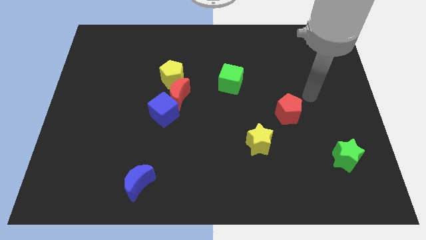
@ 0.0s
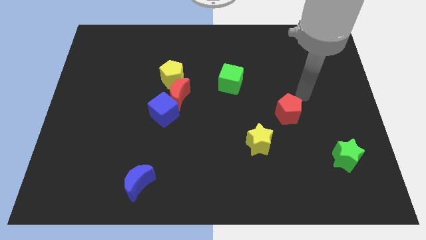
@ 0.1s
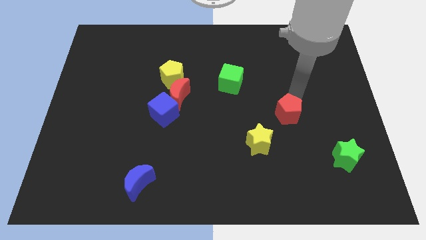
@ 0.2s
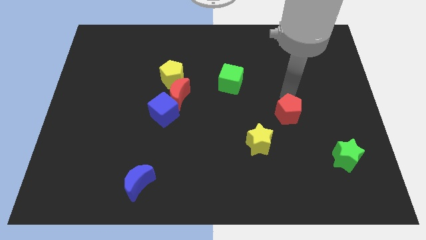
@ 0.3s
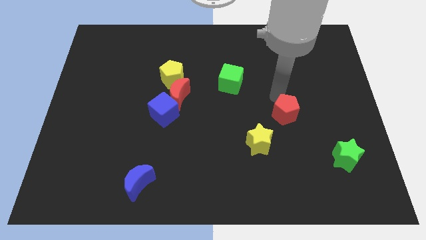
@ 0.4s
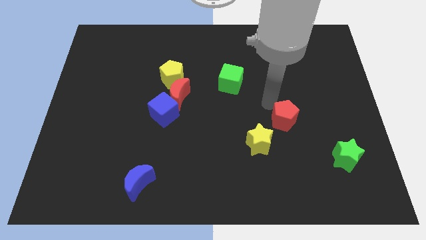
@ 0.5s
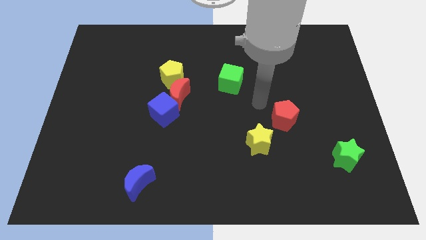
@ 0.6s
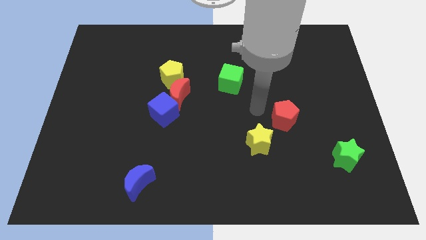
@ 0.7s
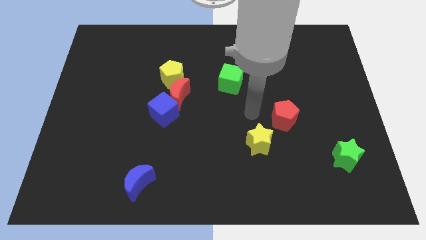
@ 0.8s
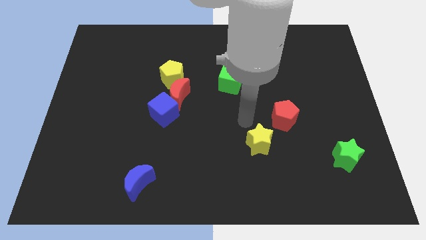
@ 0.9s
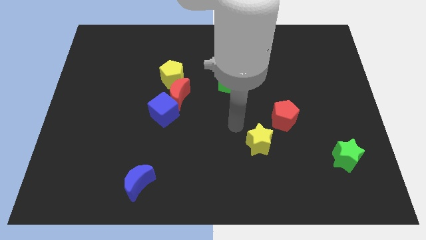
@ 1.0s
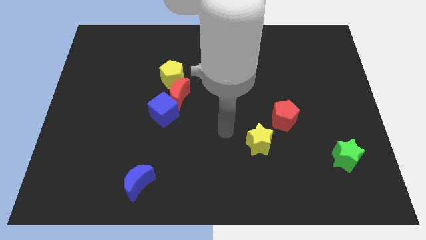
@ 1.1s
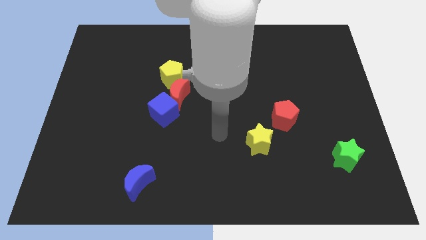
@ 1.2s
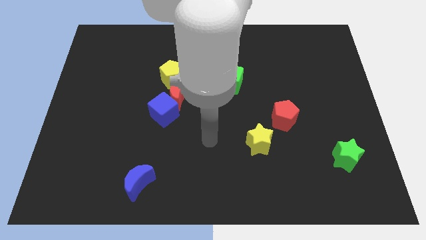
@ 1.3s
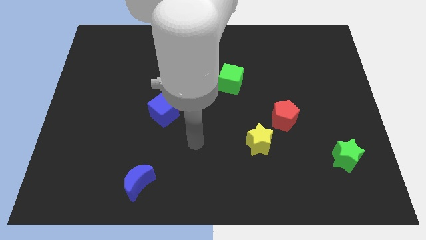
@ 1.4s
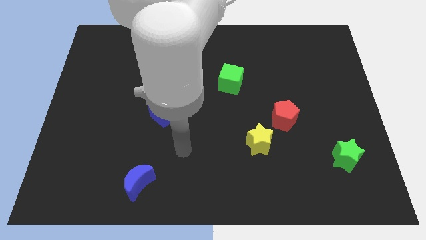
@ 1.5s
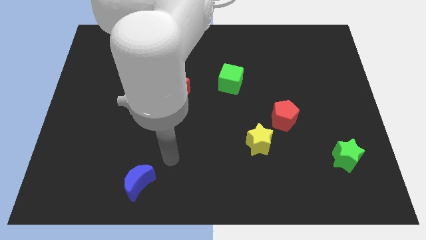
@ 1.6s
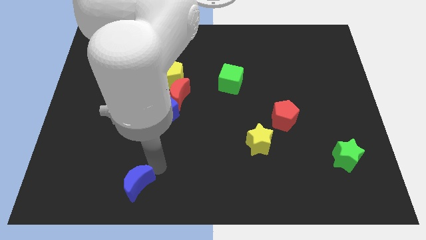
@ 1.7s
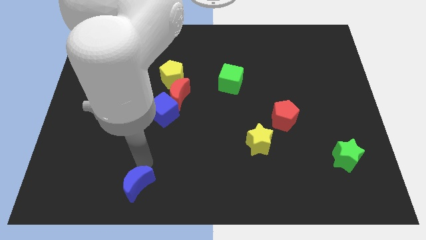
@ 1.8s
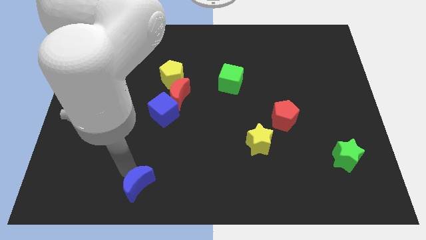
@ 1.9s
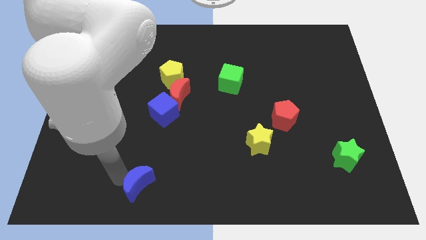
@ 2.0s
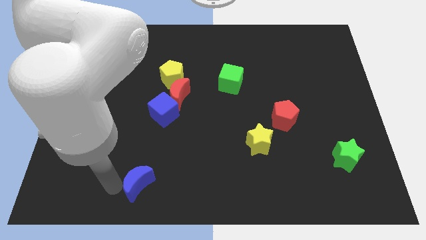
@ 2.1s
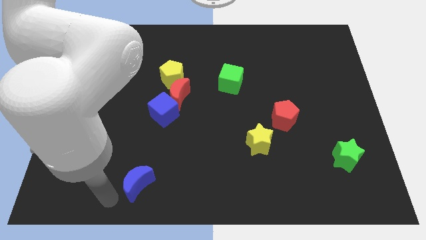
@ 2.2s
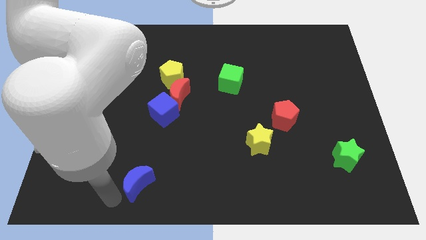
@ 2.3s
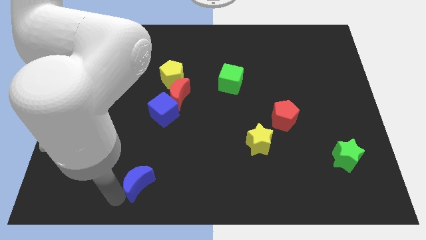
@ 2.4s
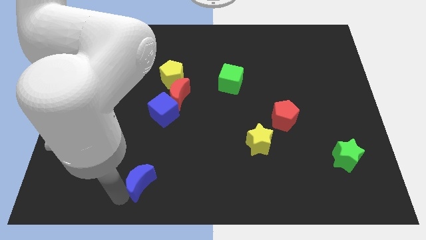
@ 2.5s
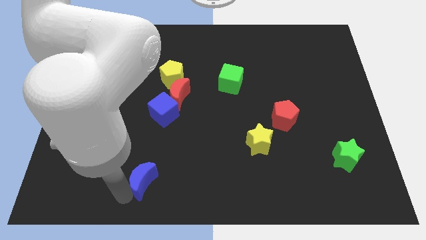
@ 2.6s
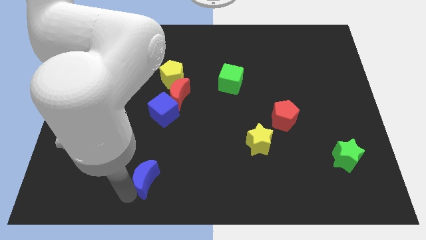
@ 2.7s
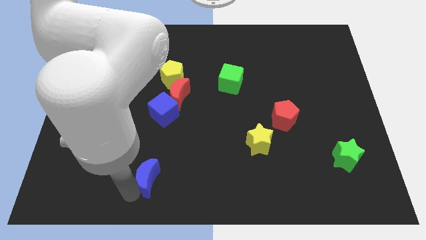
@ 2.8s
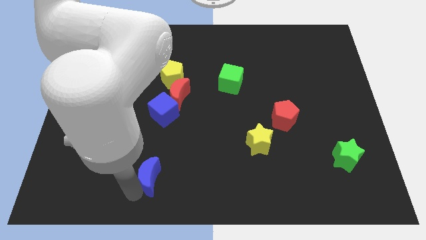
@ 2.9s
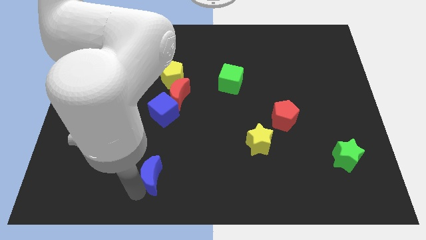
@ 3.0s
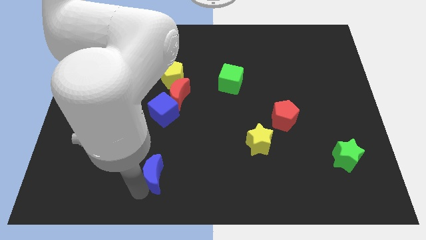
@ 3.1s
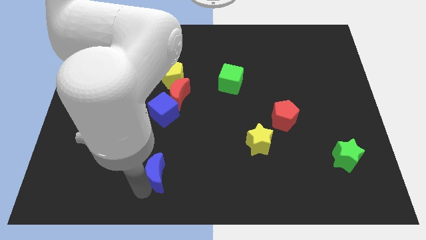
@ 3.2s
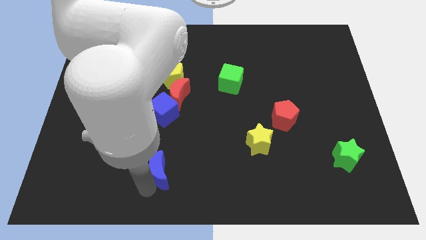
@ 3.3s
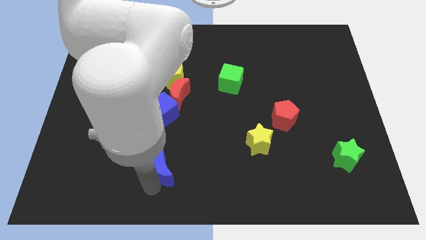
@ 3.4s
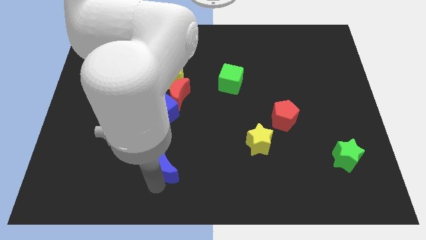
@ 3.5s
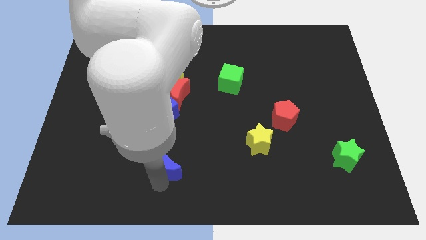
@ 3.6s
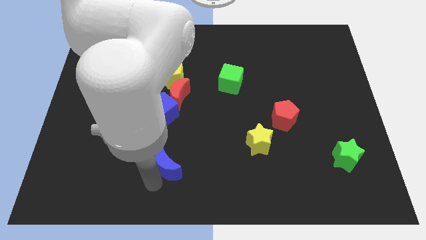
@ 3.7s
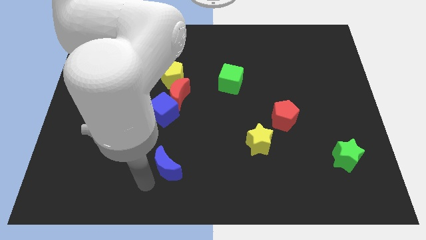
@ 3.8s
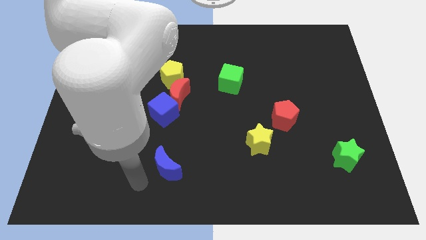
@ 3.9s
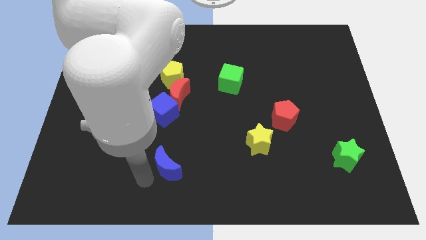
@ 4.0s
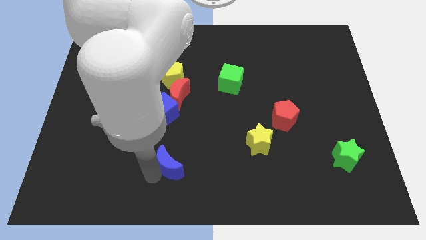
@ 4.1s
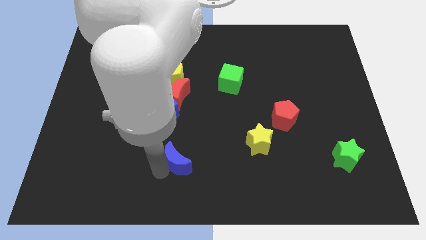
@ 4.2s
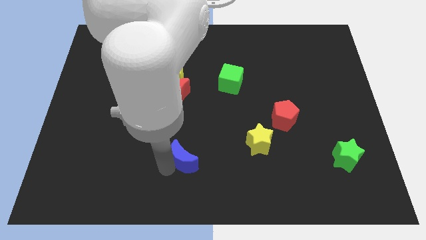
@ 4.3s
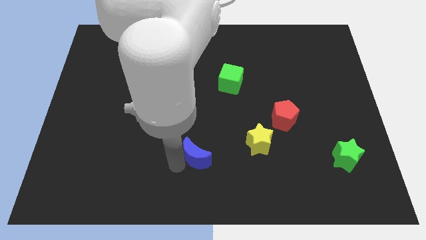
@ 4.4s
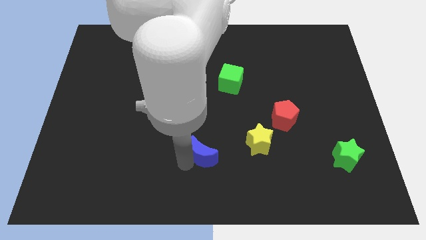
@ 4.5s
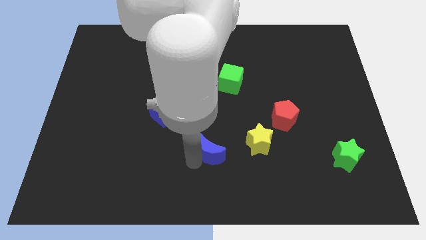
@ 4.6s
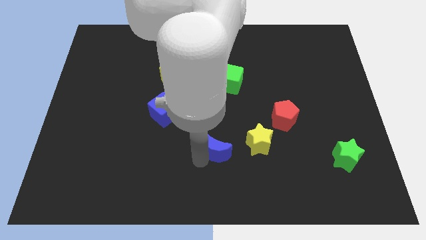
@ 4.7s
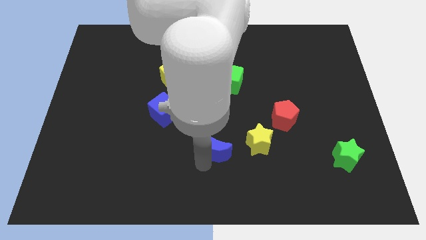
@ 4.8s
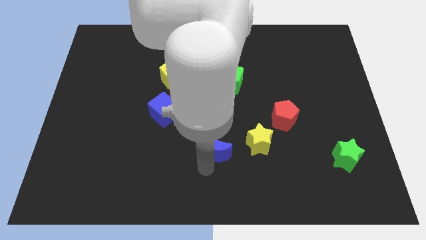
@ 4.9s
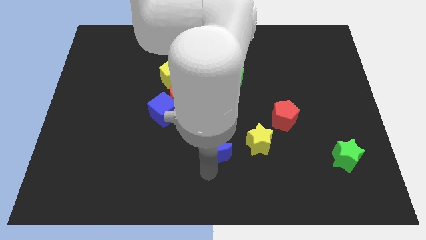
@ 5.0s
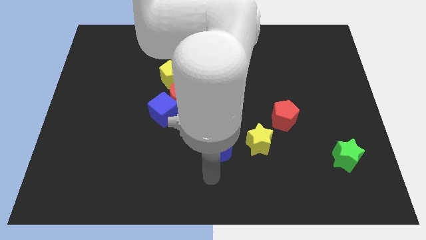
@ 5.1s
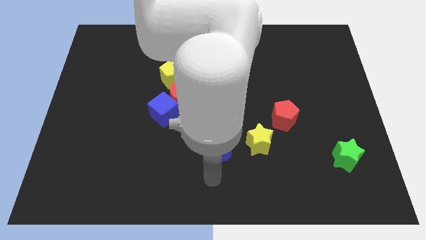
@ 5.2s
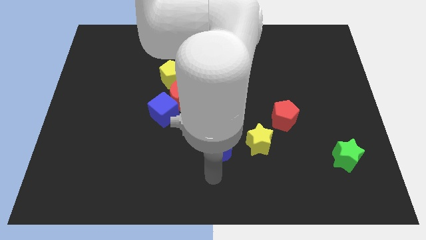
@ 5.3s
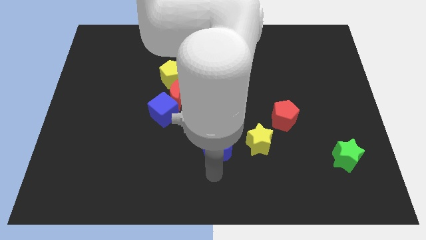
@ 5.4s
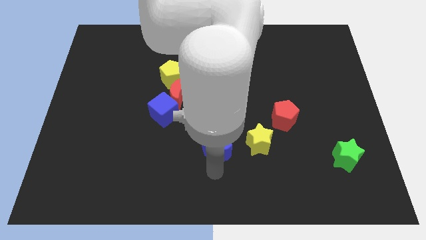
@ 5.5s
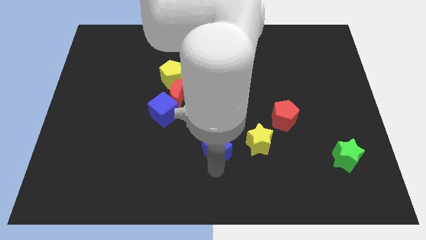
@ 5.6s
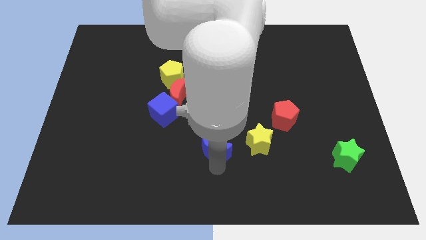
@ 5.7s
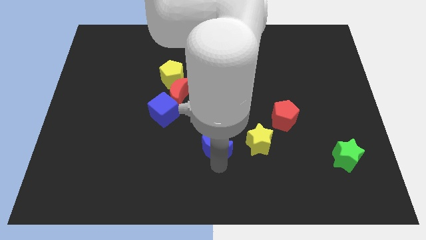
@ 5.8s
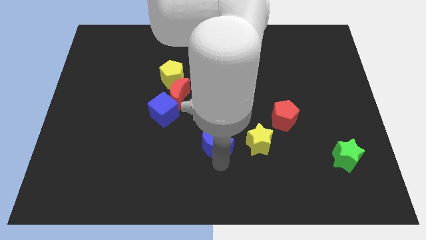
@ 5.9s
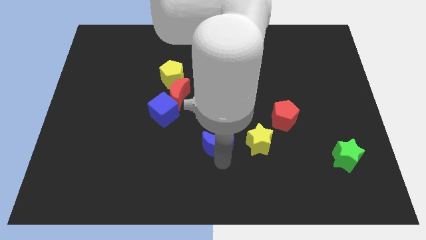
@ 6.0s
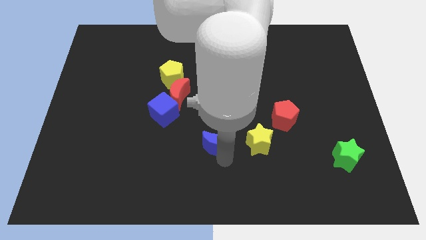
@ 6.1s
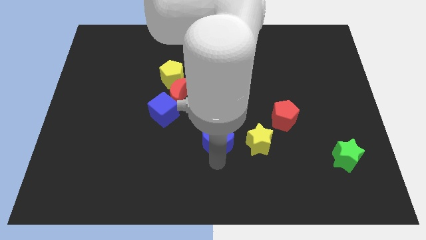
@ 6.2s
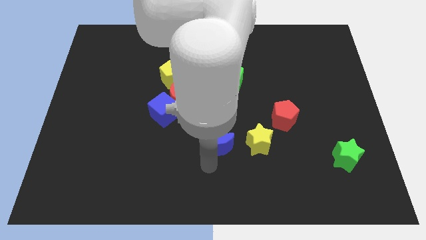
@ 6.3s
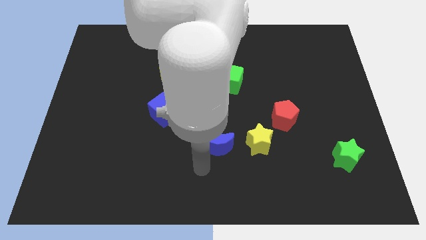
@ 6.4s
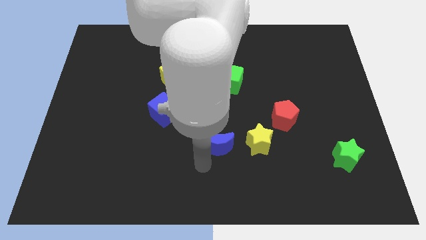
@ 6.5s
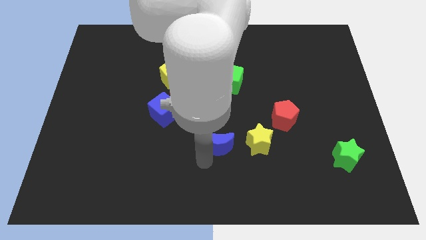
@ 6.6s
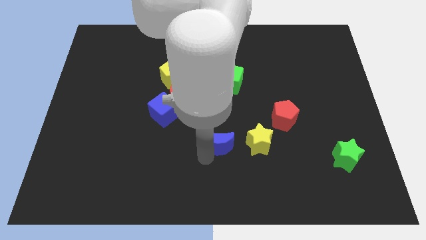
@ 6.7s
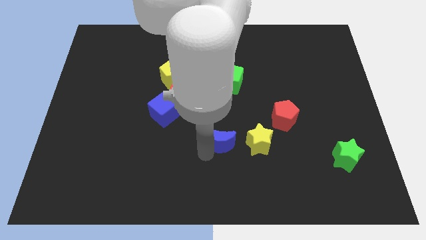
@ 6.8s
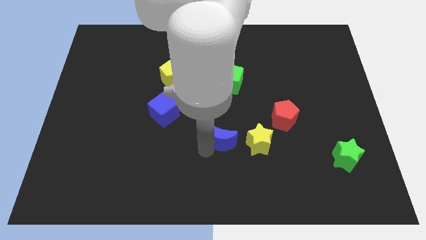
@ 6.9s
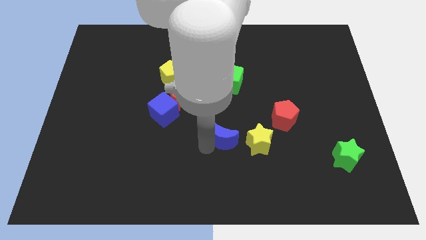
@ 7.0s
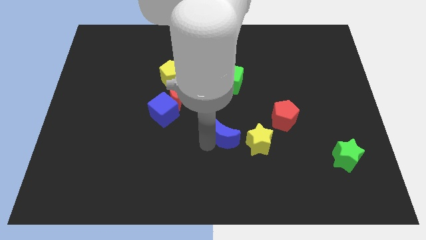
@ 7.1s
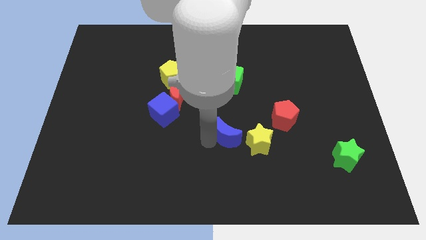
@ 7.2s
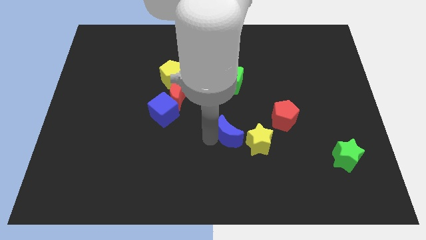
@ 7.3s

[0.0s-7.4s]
slide the blue moon to the left of the red pentagon
